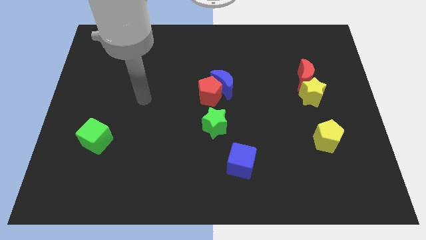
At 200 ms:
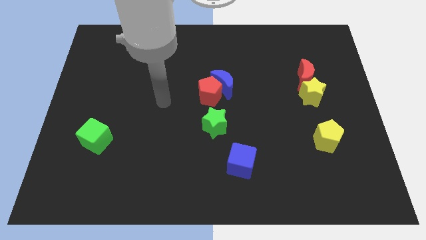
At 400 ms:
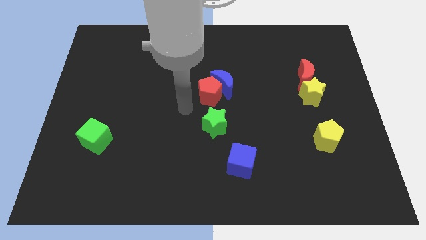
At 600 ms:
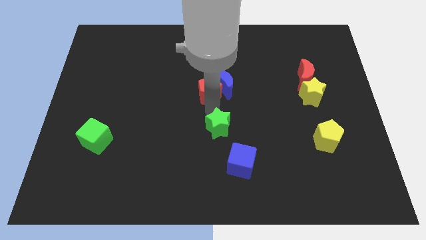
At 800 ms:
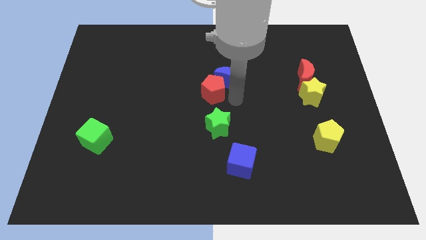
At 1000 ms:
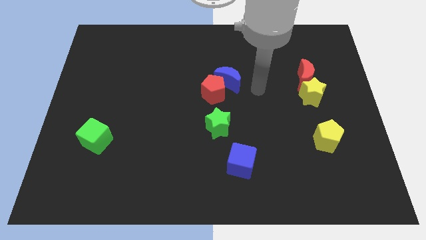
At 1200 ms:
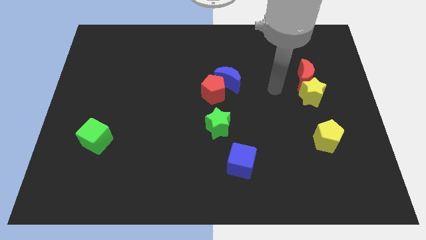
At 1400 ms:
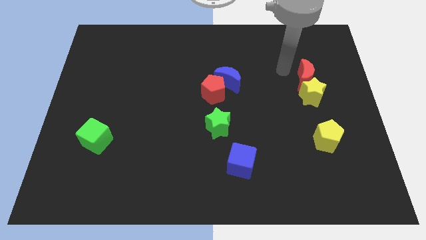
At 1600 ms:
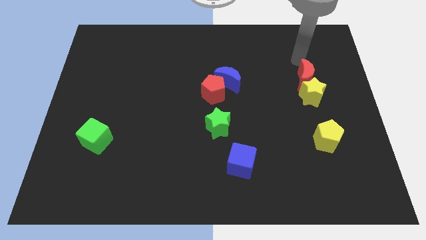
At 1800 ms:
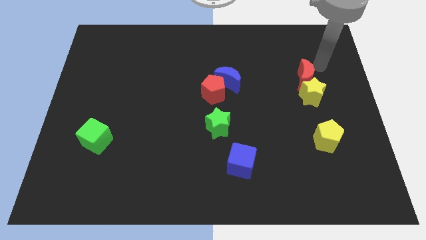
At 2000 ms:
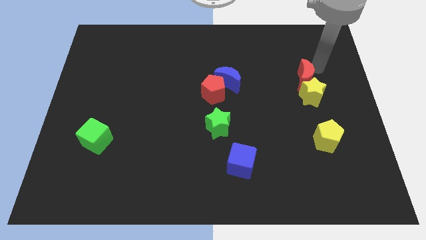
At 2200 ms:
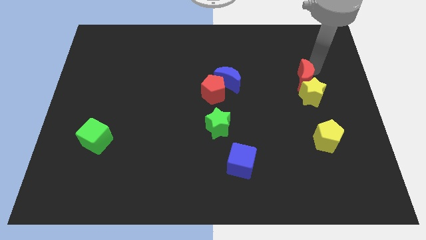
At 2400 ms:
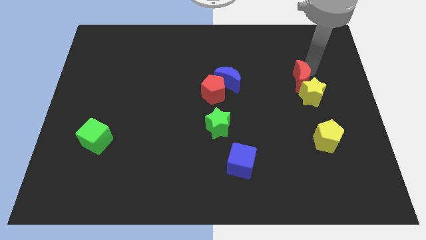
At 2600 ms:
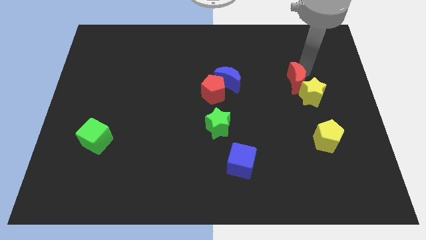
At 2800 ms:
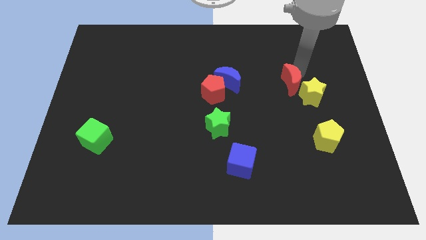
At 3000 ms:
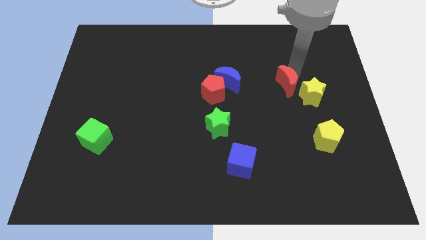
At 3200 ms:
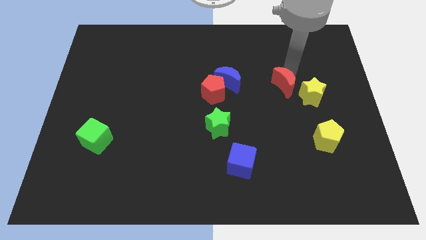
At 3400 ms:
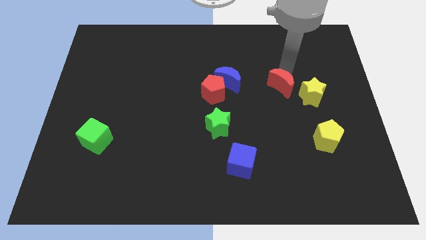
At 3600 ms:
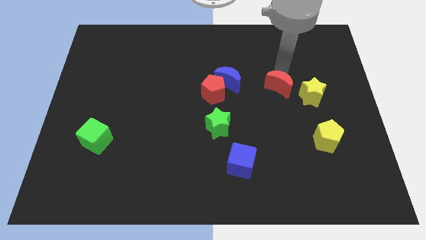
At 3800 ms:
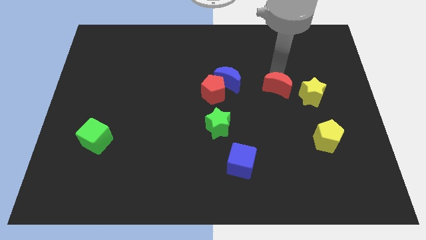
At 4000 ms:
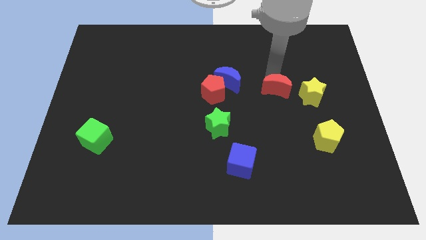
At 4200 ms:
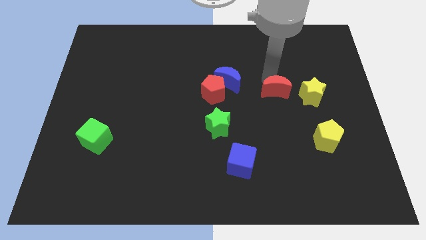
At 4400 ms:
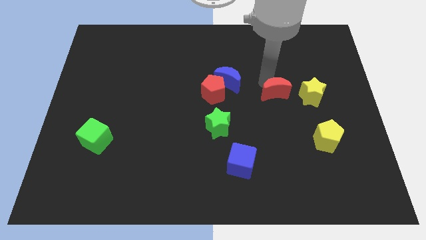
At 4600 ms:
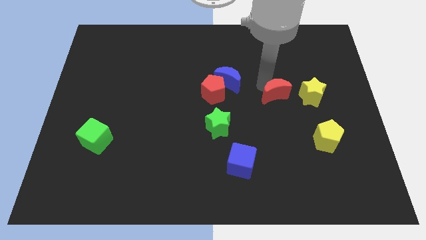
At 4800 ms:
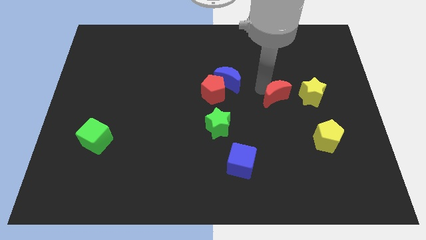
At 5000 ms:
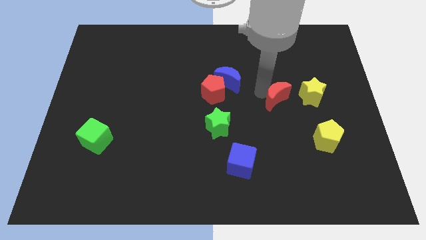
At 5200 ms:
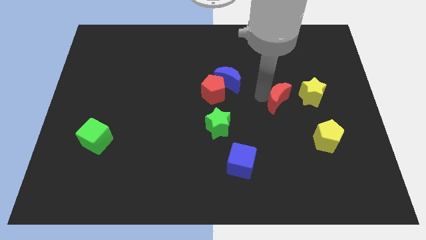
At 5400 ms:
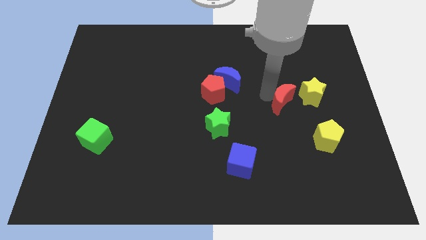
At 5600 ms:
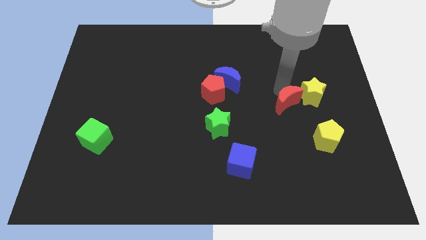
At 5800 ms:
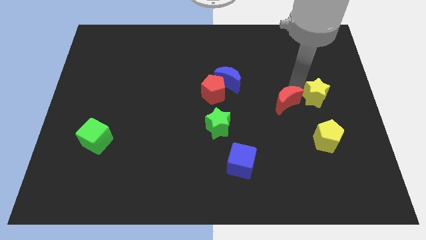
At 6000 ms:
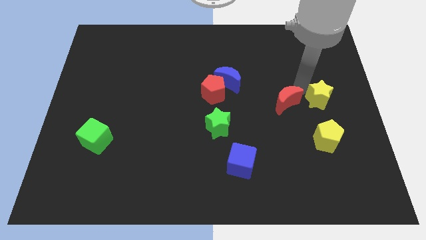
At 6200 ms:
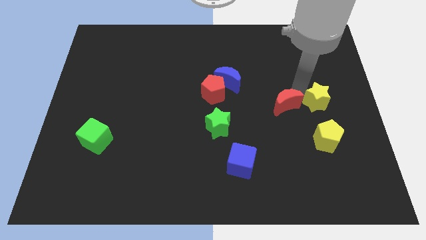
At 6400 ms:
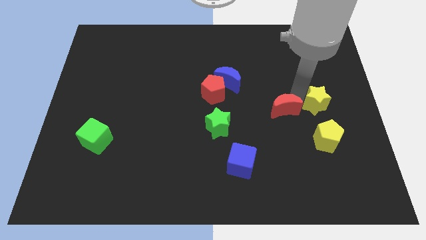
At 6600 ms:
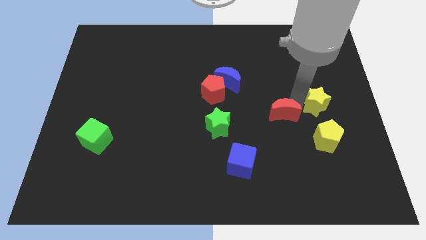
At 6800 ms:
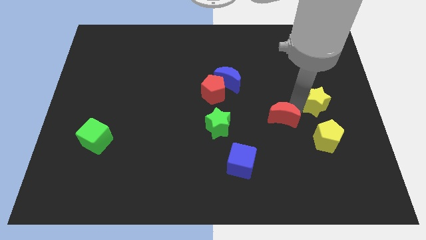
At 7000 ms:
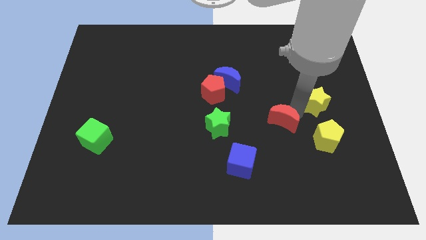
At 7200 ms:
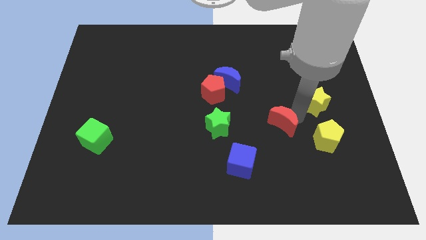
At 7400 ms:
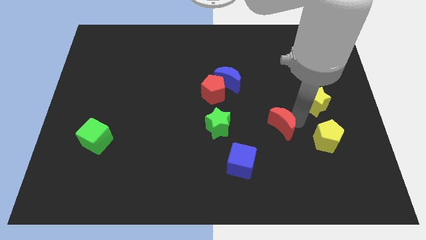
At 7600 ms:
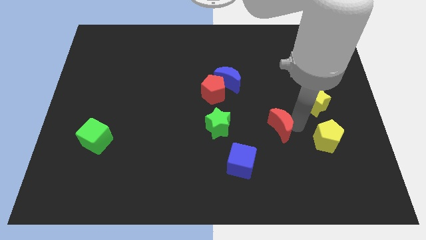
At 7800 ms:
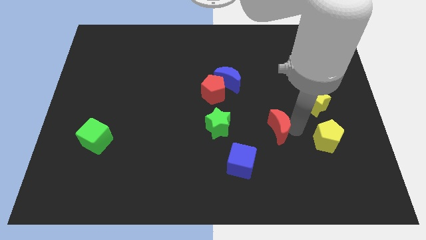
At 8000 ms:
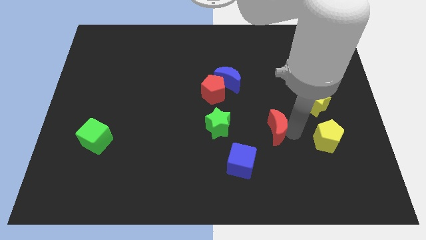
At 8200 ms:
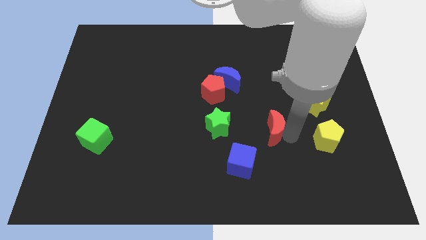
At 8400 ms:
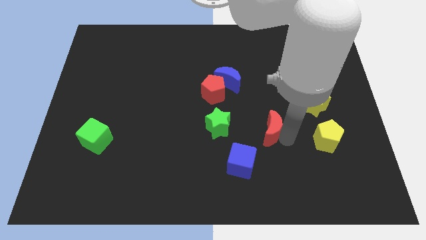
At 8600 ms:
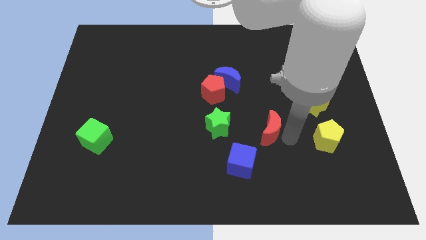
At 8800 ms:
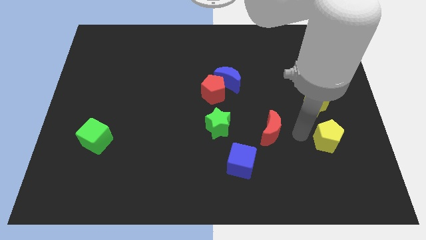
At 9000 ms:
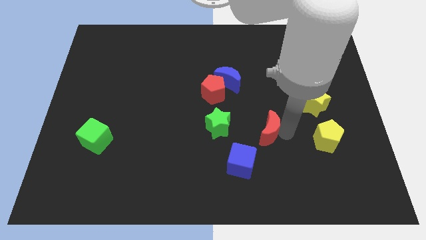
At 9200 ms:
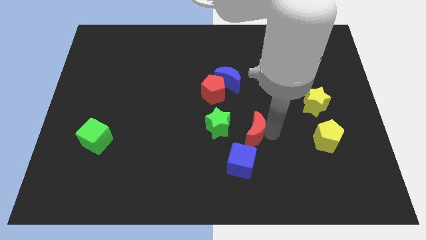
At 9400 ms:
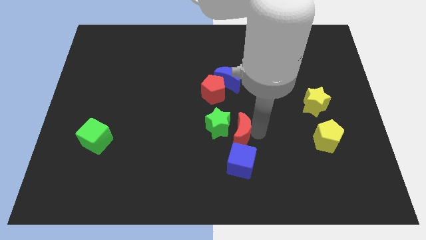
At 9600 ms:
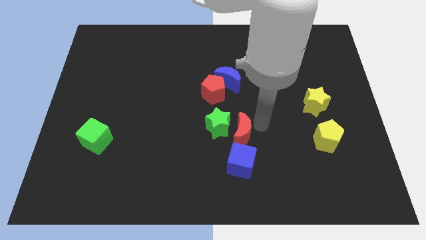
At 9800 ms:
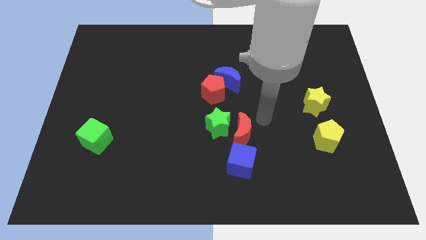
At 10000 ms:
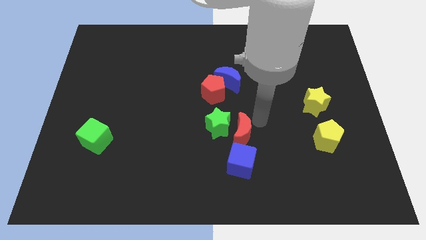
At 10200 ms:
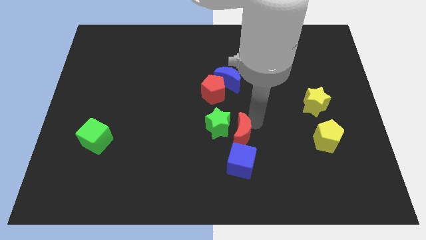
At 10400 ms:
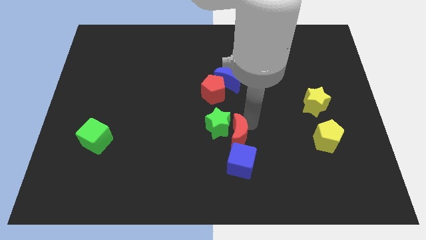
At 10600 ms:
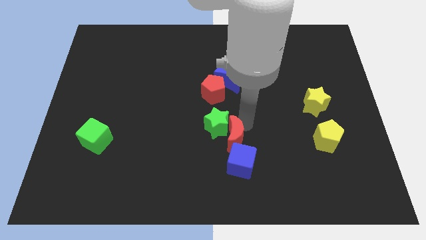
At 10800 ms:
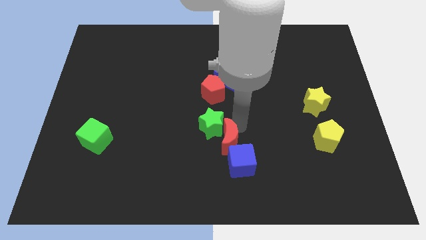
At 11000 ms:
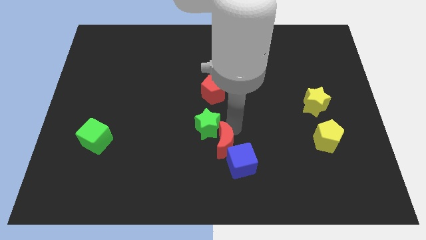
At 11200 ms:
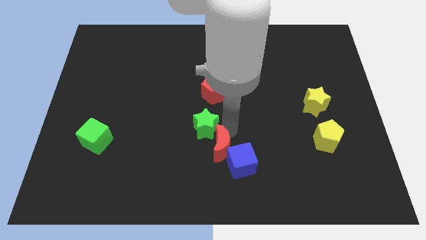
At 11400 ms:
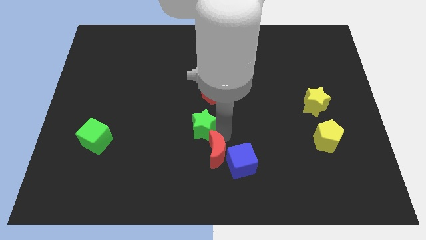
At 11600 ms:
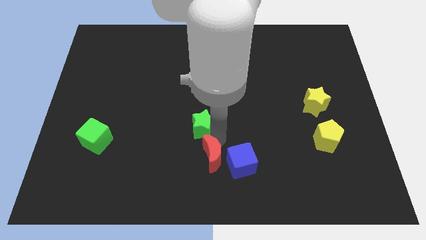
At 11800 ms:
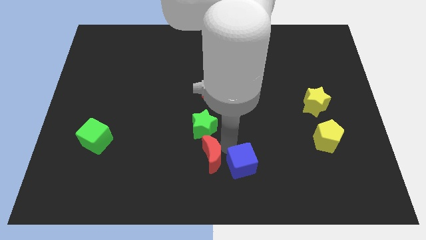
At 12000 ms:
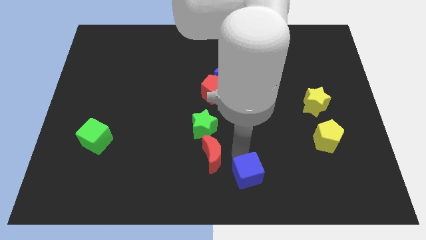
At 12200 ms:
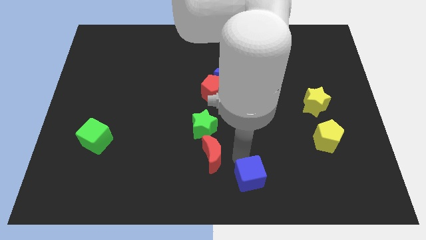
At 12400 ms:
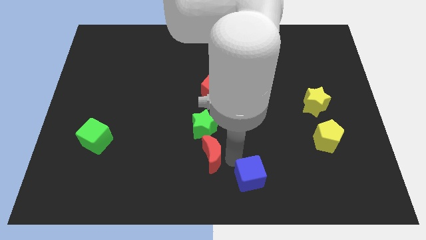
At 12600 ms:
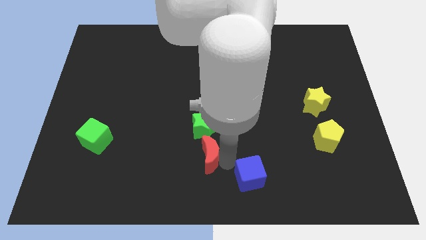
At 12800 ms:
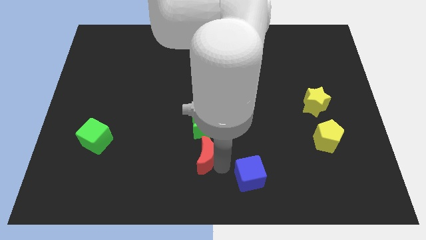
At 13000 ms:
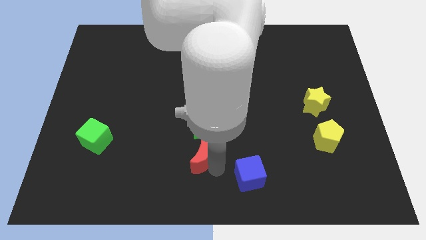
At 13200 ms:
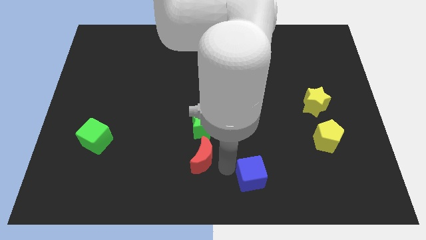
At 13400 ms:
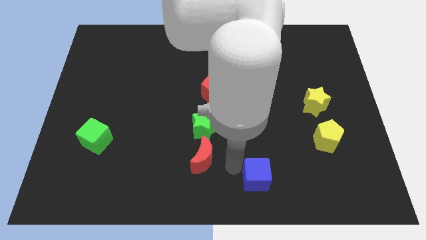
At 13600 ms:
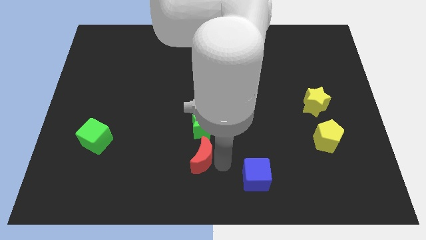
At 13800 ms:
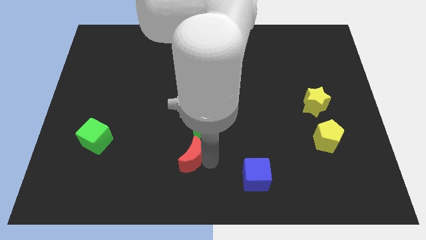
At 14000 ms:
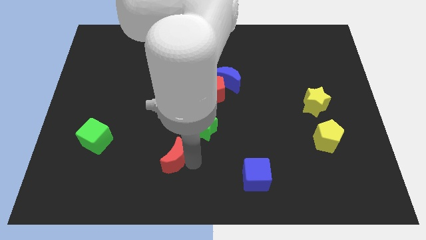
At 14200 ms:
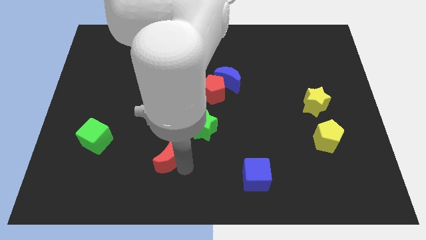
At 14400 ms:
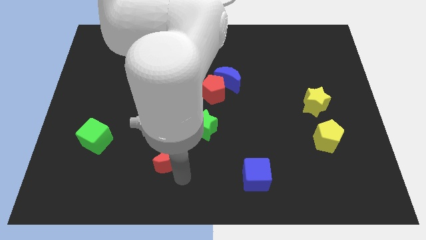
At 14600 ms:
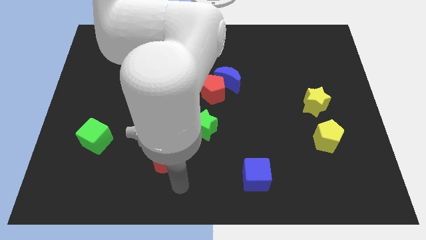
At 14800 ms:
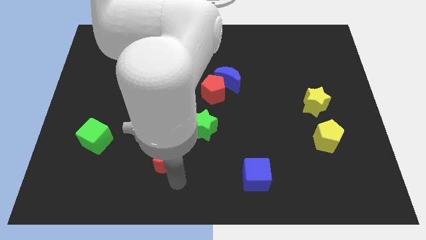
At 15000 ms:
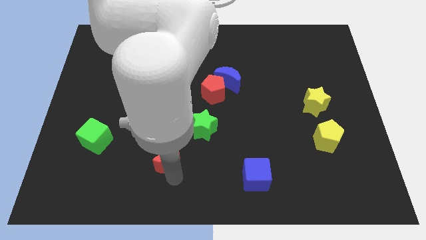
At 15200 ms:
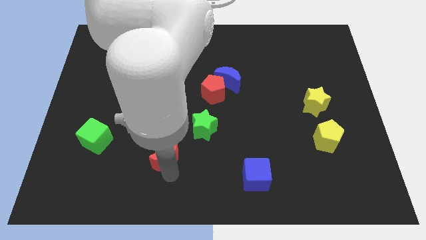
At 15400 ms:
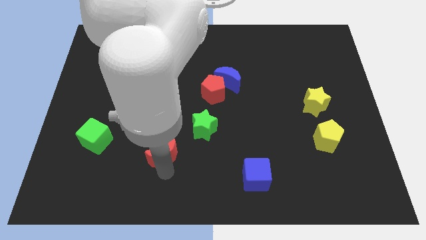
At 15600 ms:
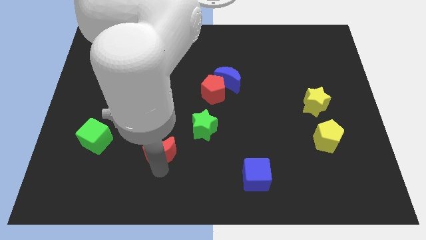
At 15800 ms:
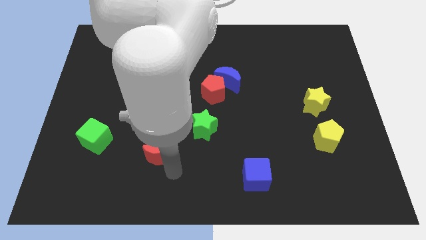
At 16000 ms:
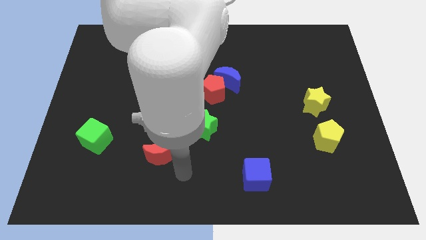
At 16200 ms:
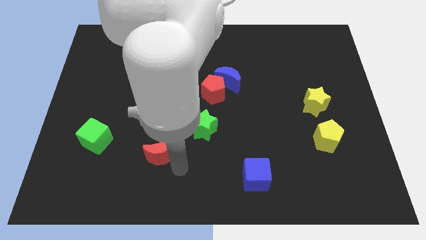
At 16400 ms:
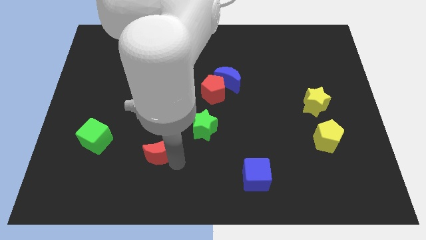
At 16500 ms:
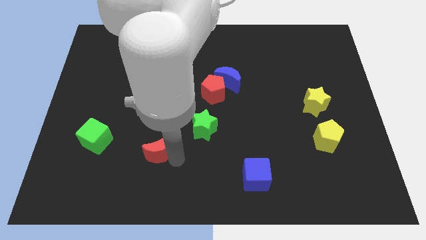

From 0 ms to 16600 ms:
slide the red moon right of the green cube
